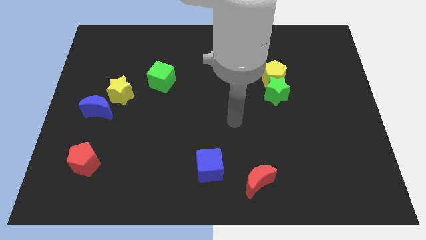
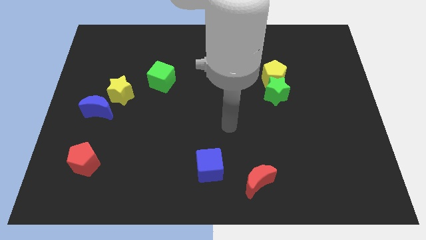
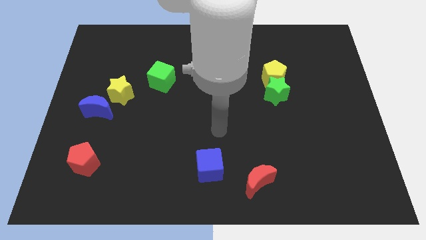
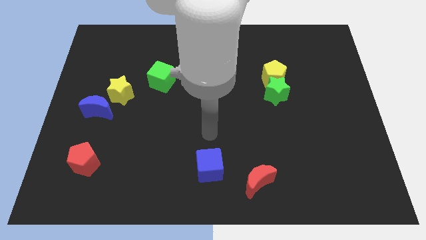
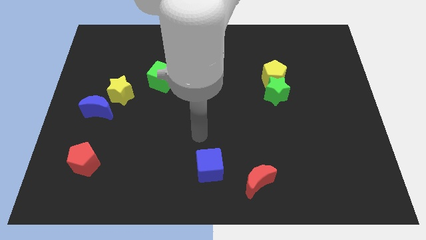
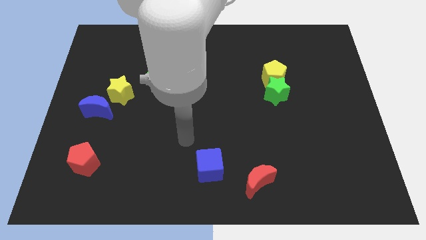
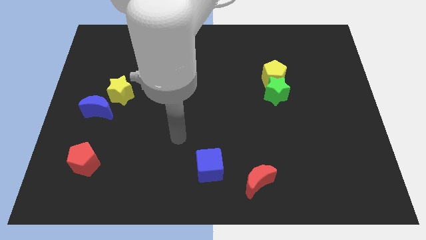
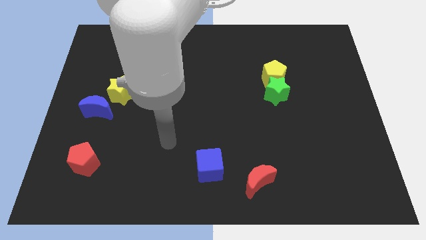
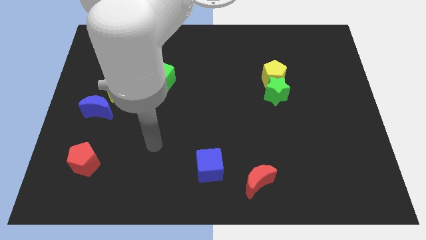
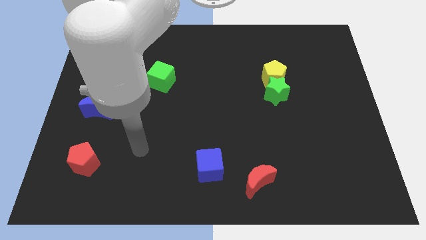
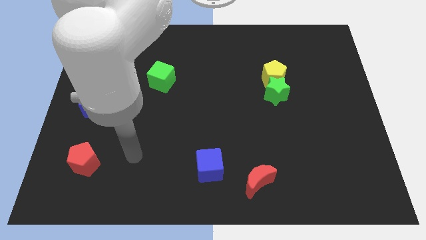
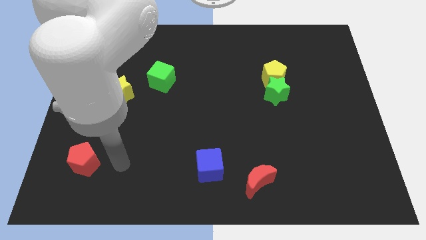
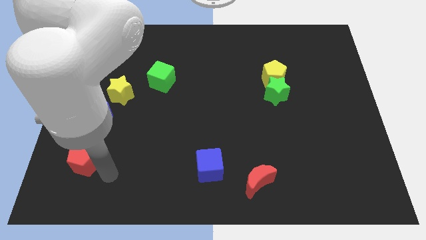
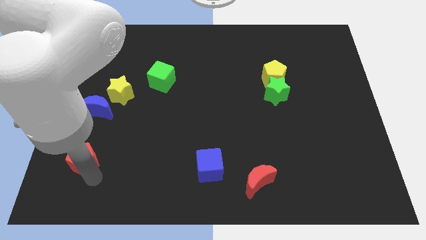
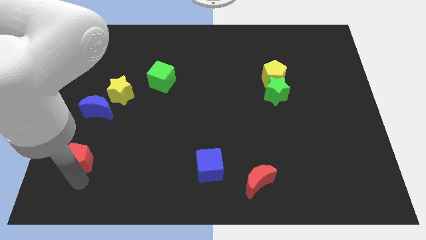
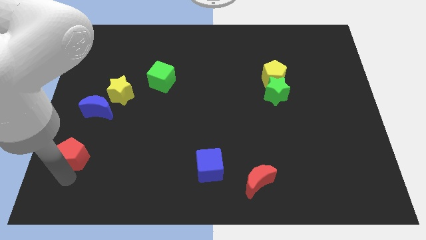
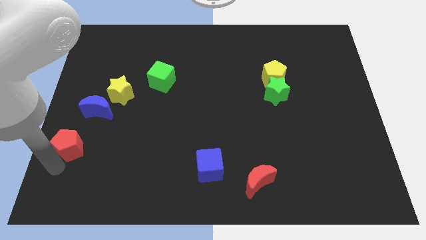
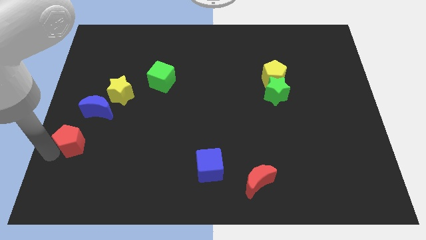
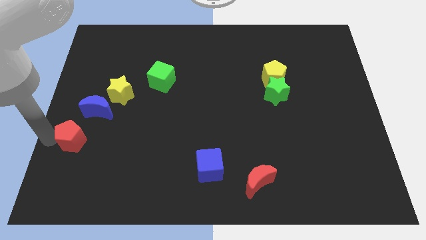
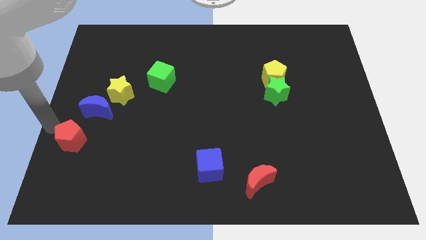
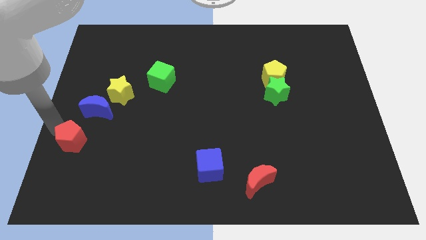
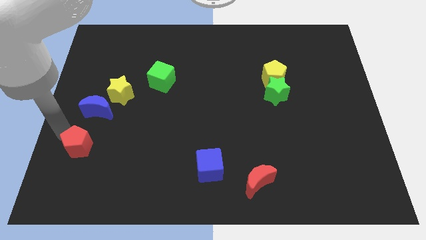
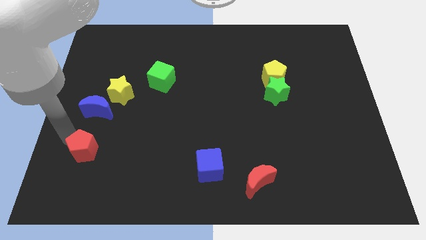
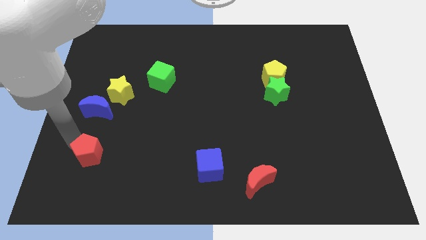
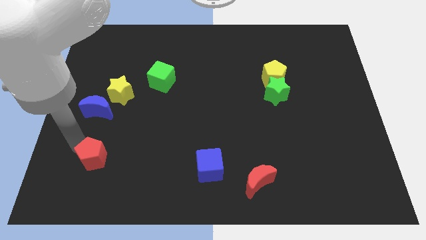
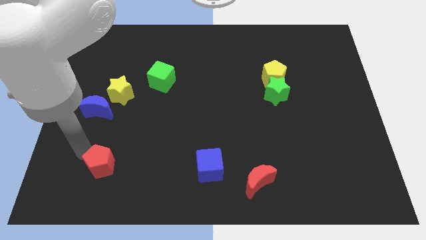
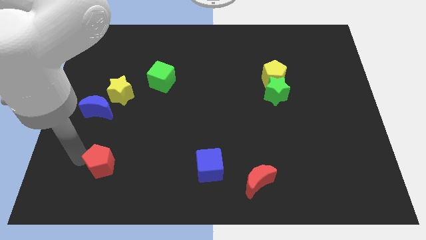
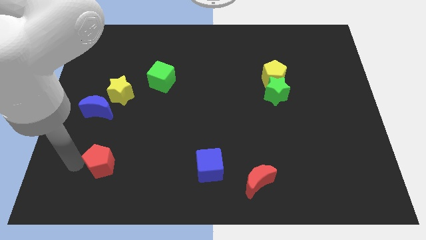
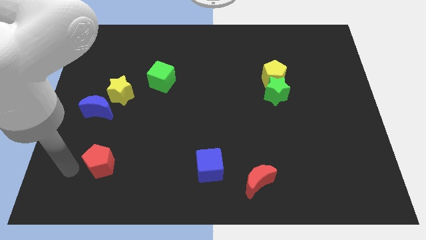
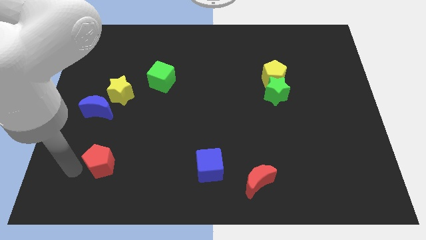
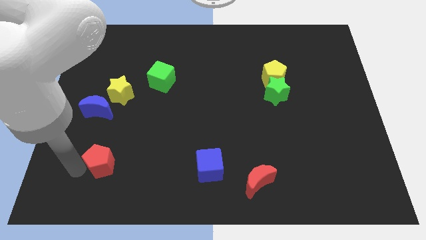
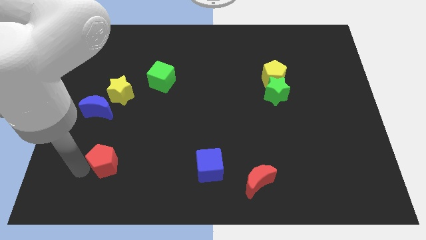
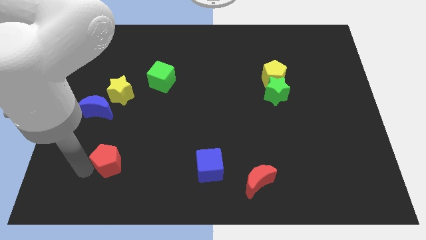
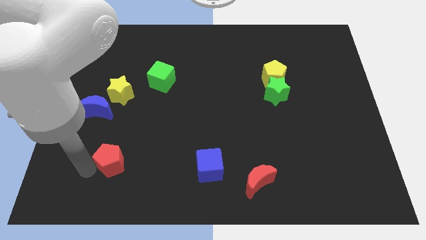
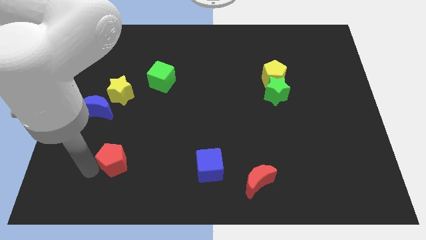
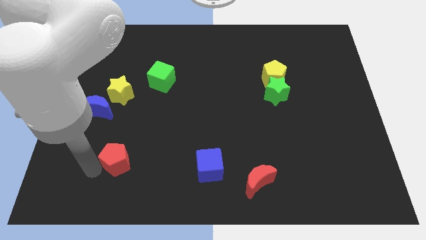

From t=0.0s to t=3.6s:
slightly move the red pentagon to the right

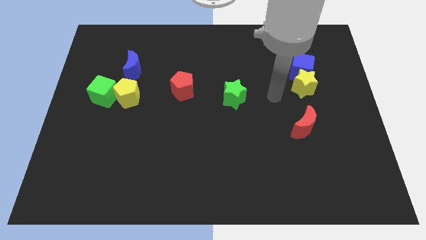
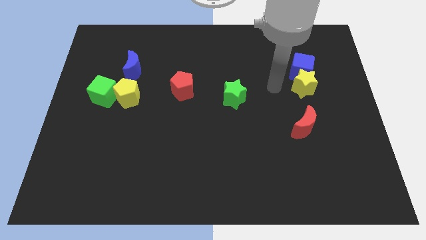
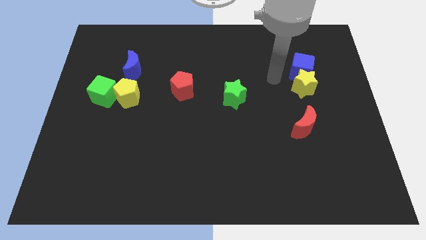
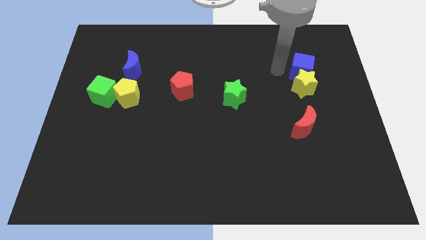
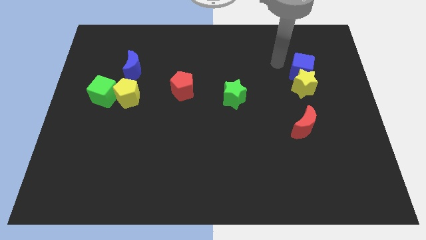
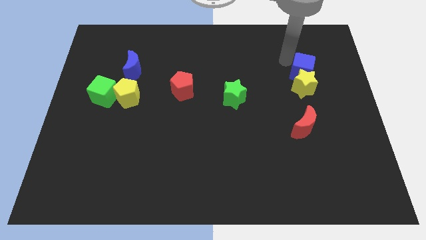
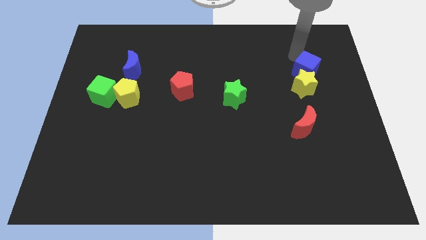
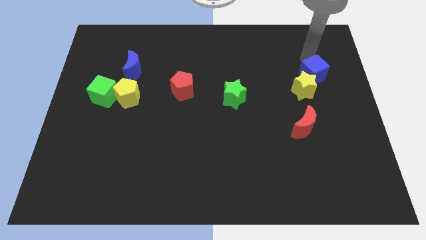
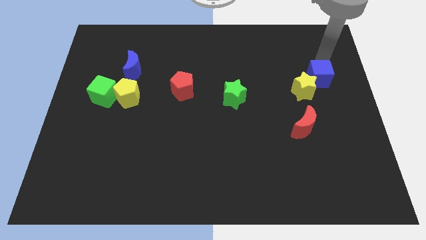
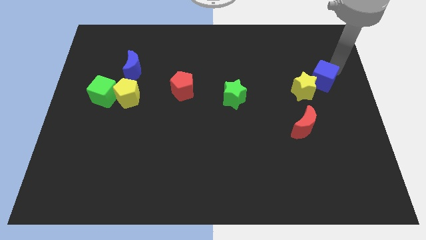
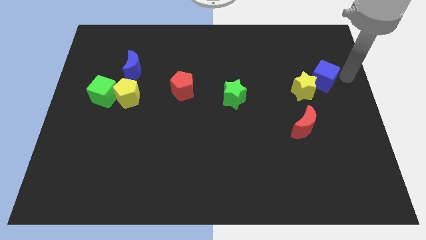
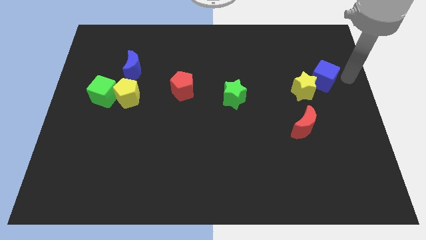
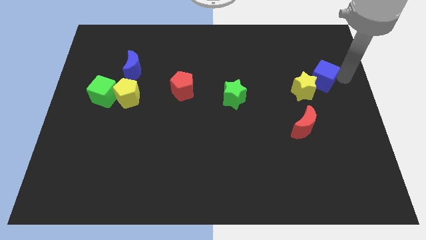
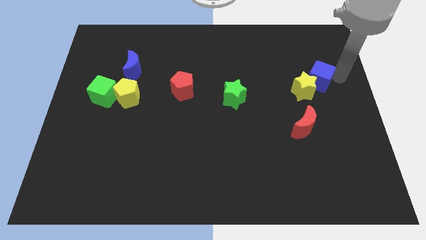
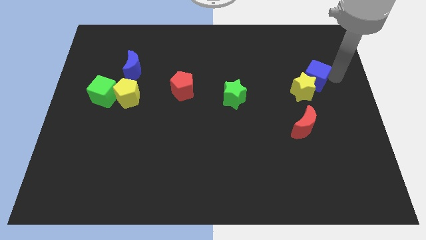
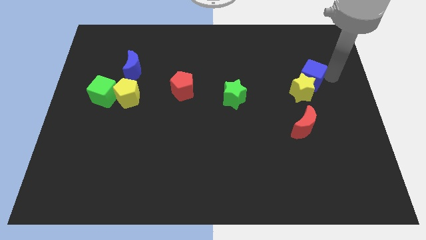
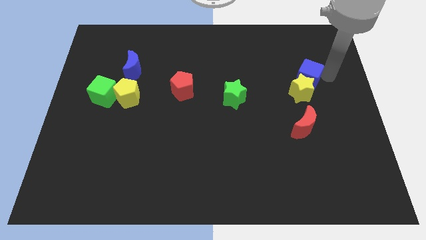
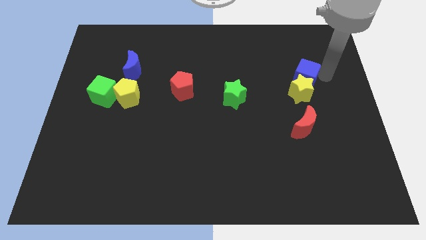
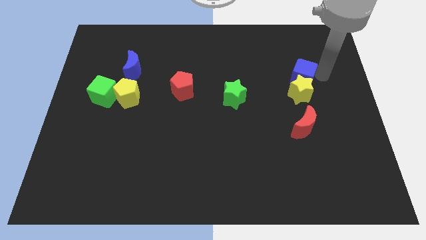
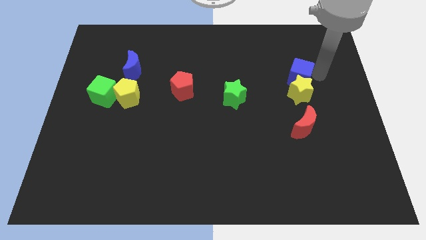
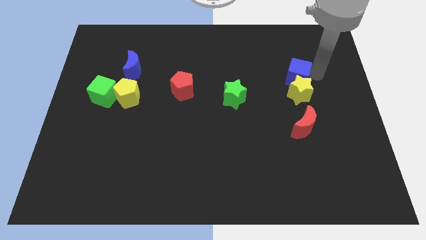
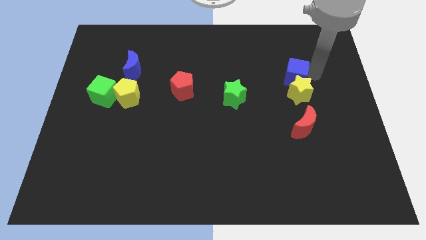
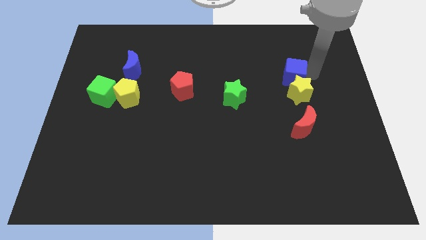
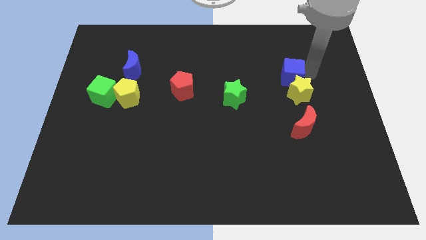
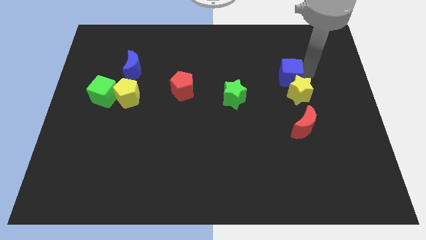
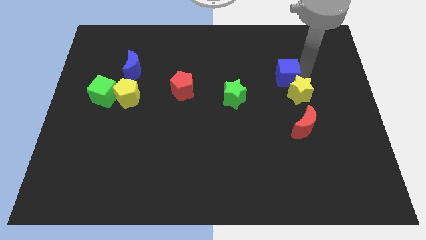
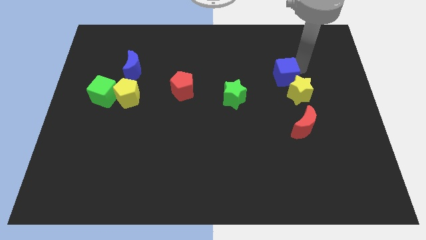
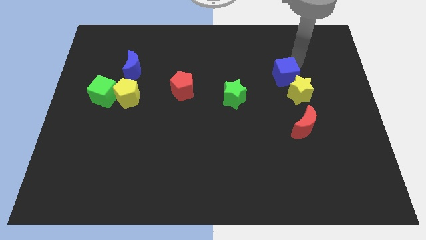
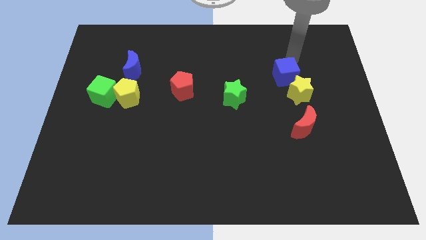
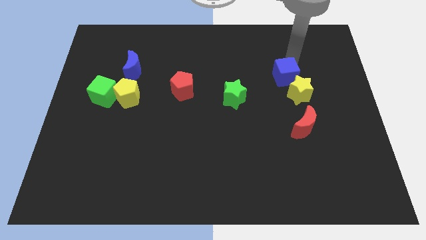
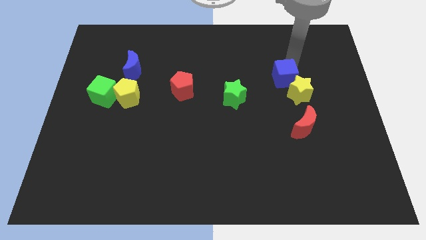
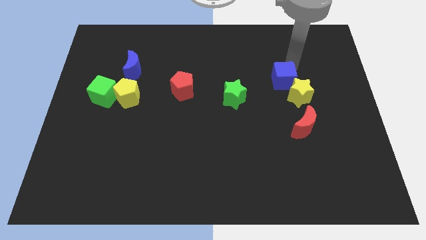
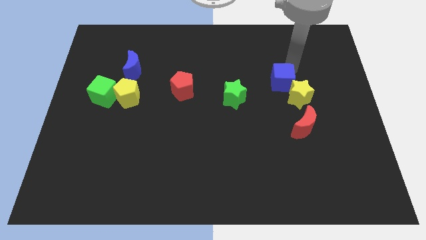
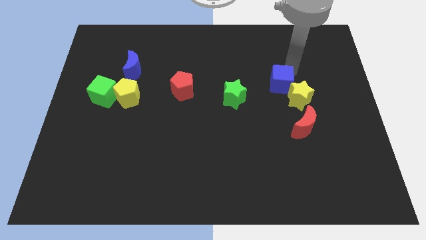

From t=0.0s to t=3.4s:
slide the blue cube downwards and left diagonally a bit

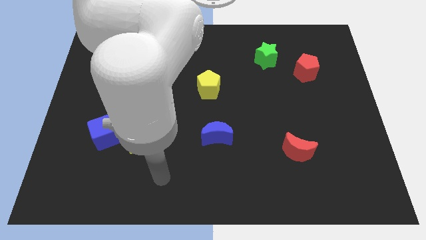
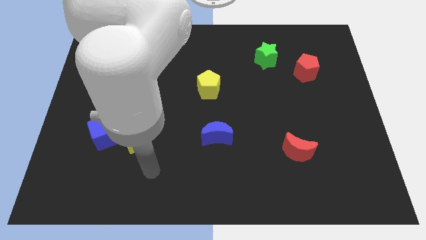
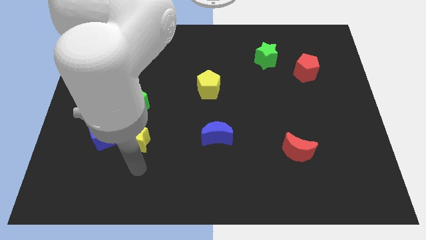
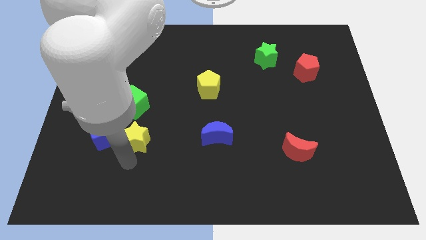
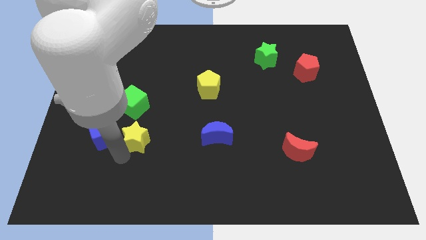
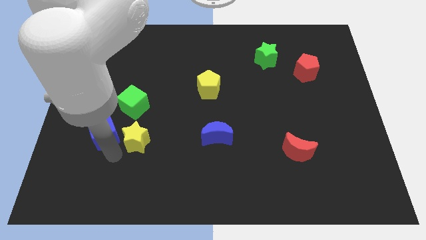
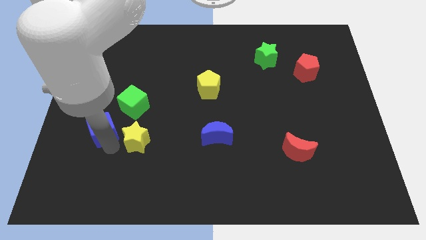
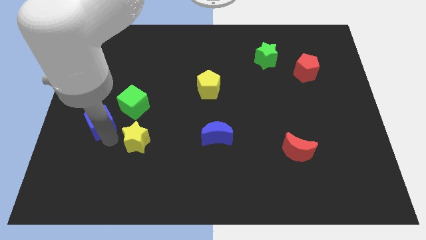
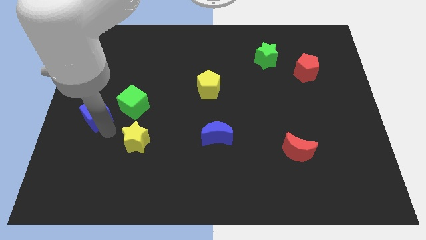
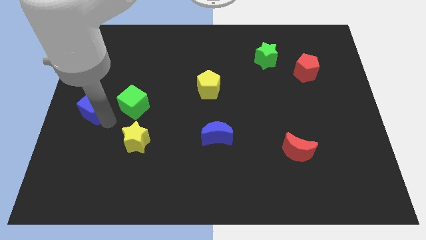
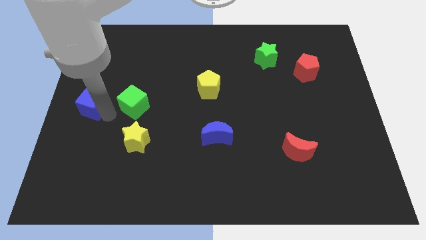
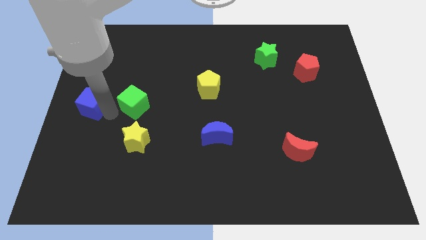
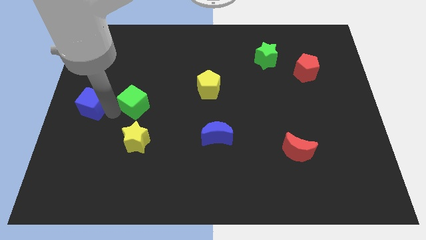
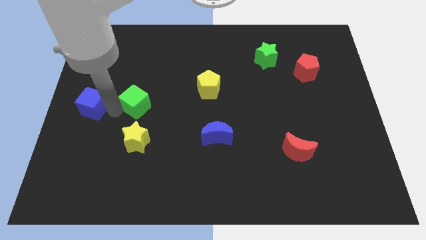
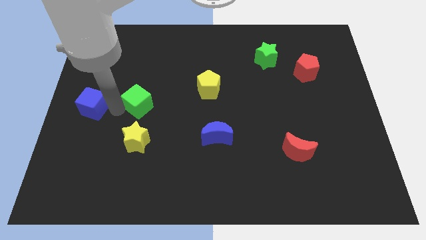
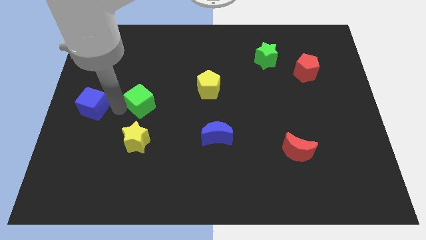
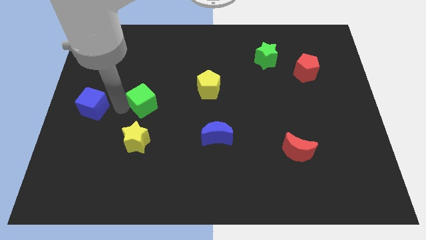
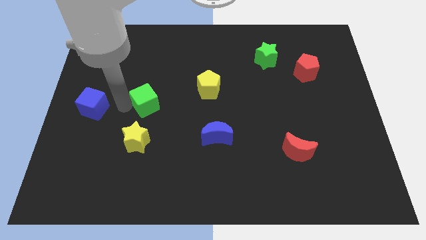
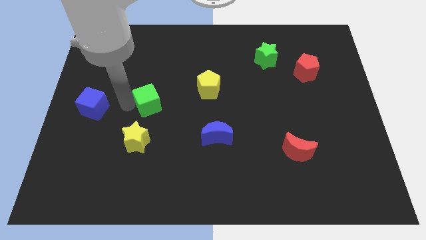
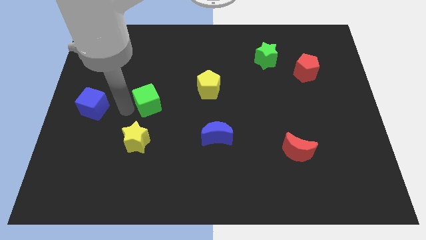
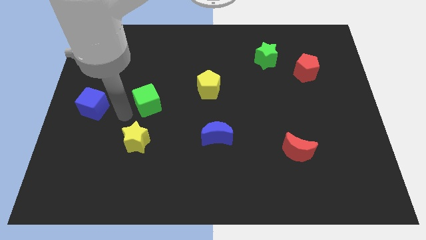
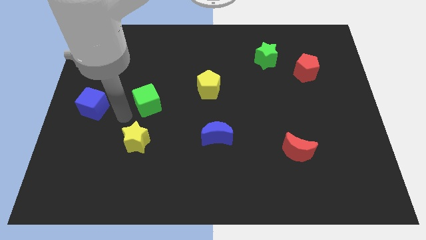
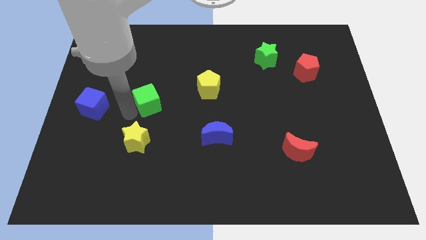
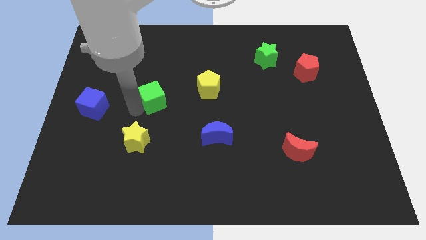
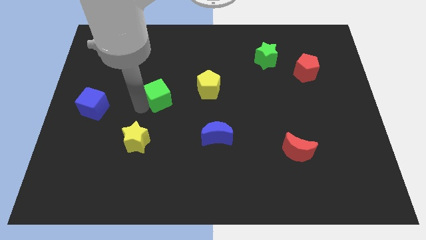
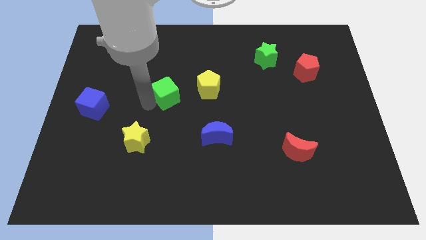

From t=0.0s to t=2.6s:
slightly push the green cube upwards and right diagonally
